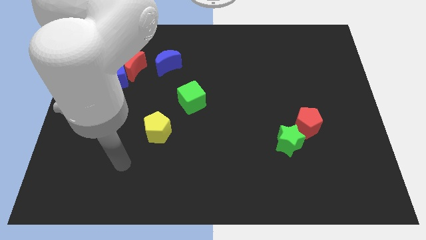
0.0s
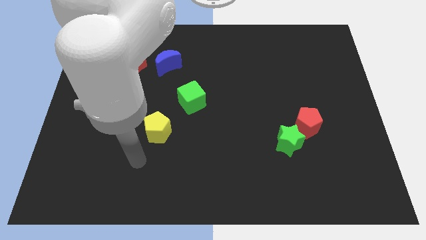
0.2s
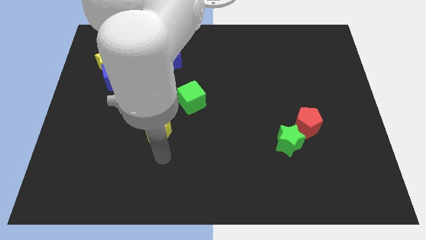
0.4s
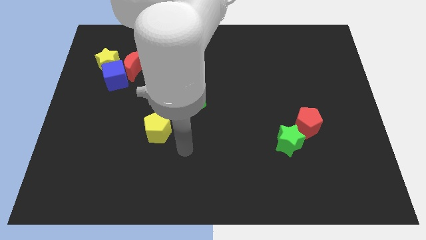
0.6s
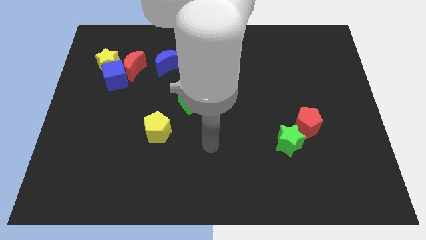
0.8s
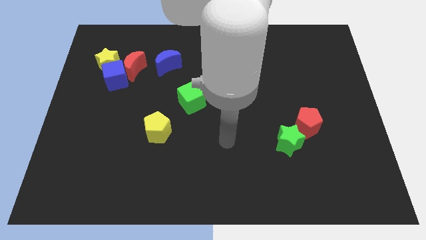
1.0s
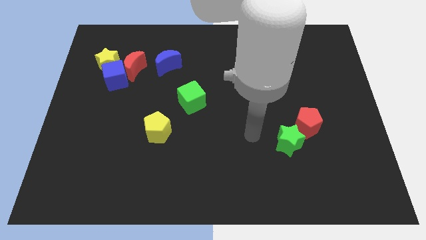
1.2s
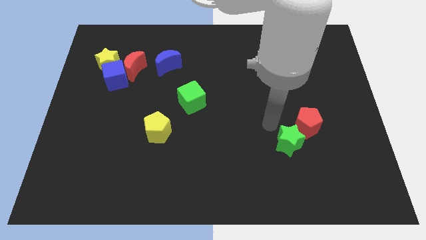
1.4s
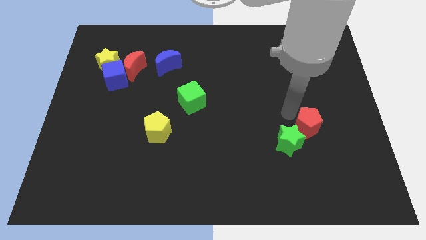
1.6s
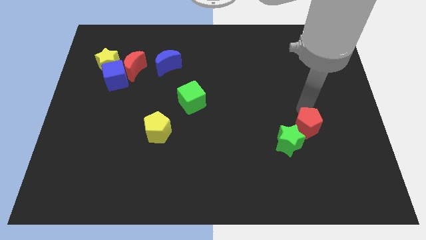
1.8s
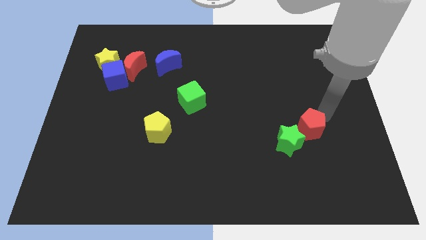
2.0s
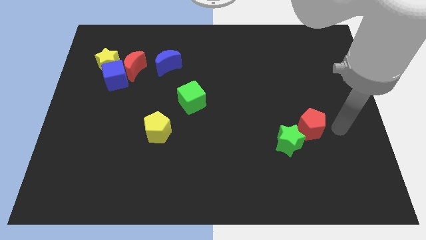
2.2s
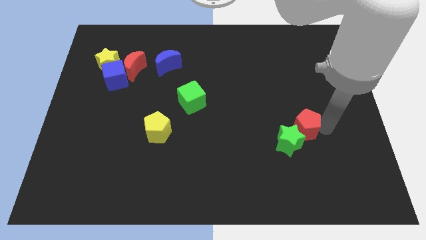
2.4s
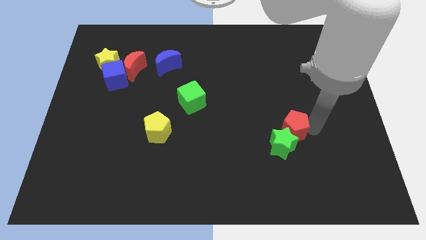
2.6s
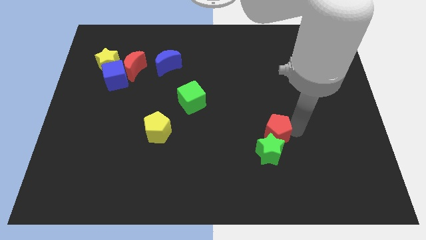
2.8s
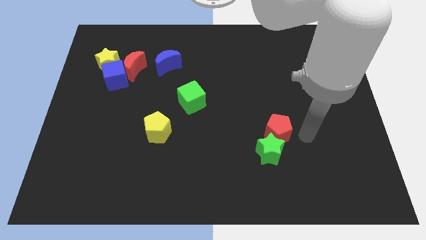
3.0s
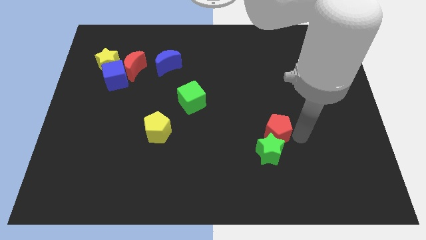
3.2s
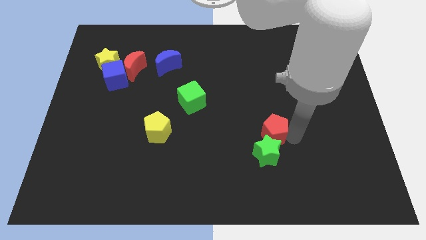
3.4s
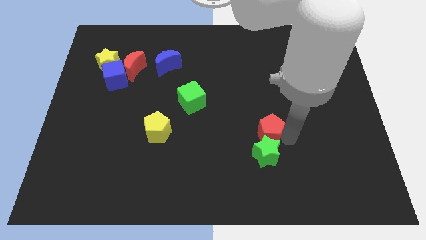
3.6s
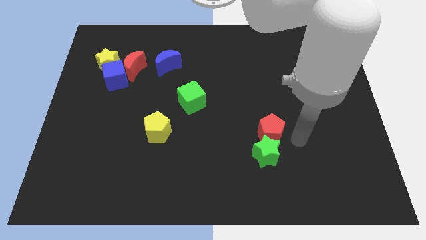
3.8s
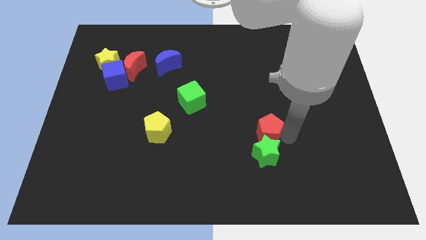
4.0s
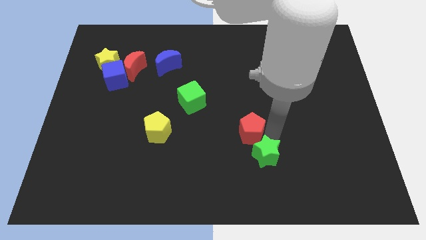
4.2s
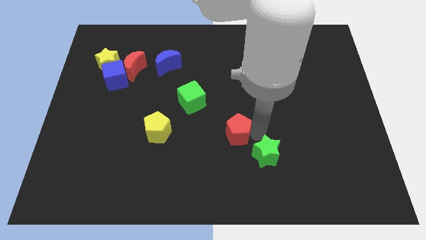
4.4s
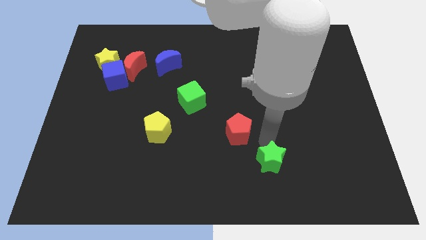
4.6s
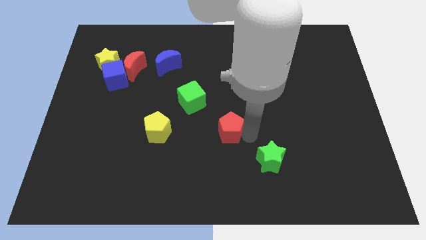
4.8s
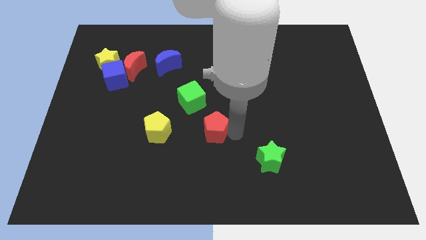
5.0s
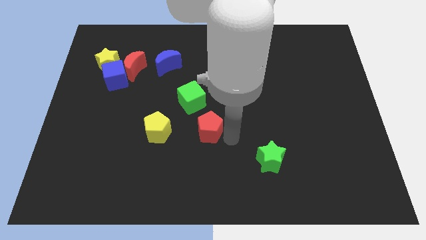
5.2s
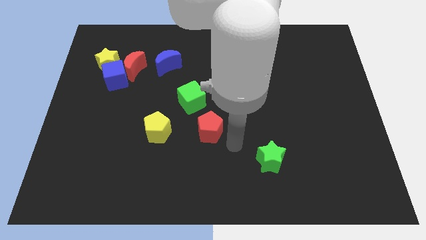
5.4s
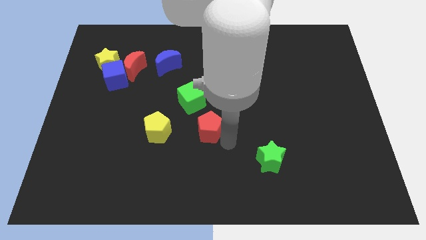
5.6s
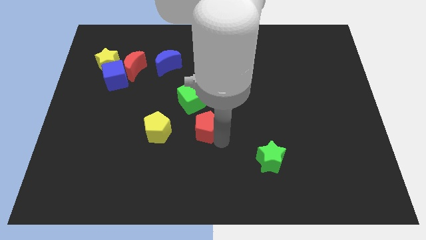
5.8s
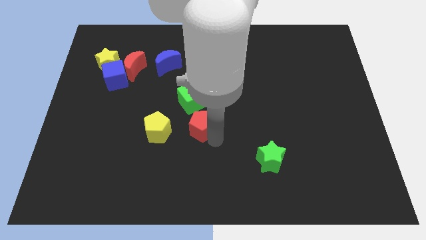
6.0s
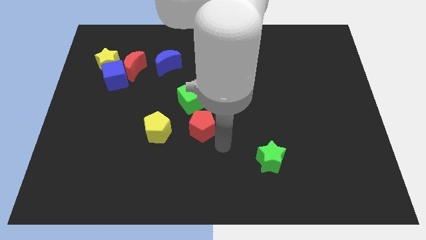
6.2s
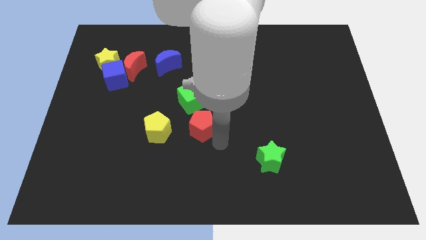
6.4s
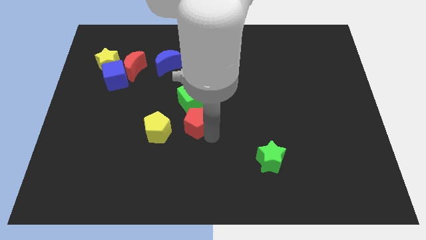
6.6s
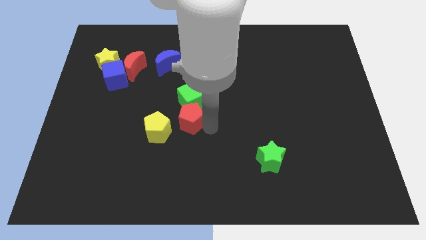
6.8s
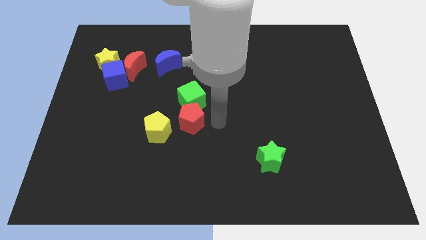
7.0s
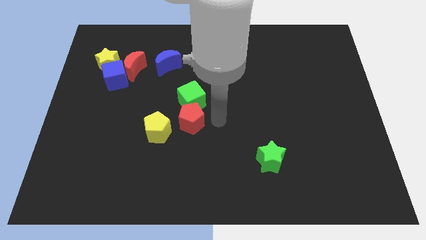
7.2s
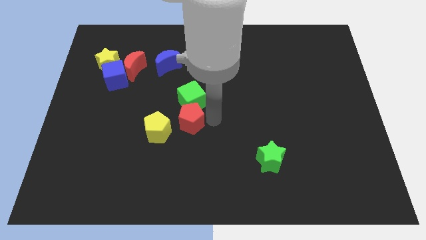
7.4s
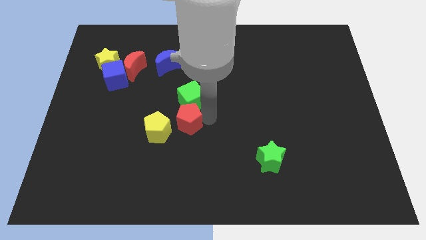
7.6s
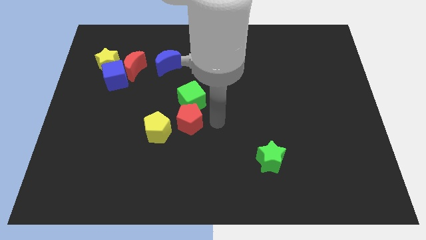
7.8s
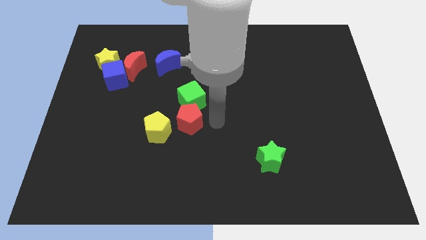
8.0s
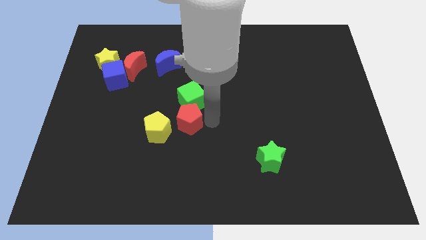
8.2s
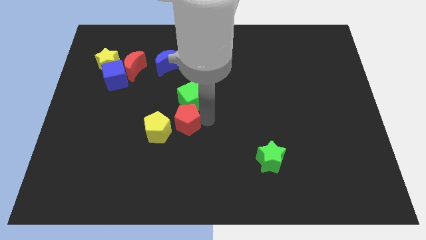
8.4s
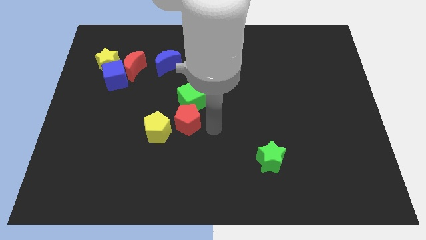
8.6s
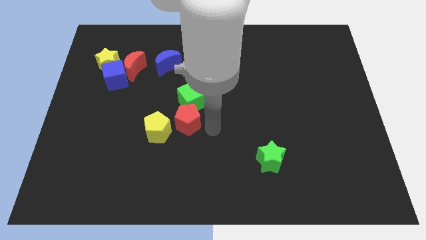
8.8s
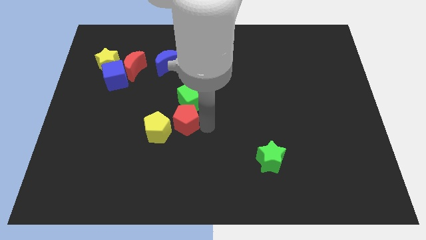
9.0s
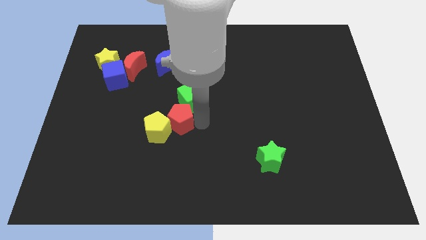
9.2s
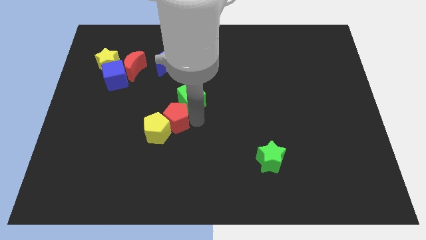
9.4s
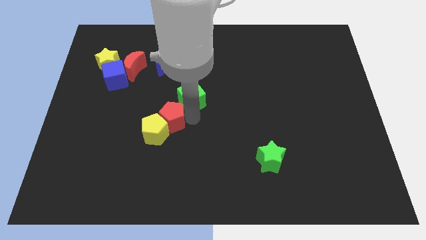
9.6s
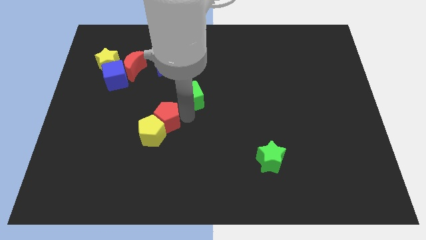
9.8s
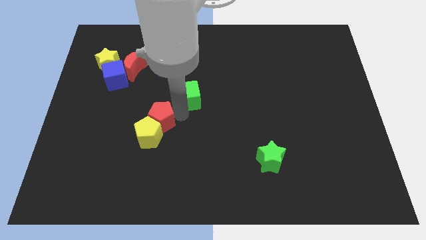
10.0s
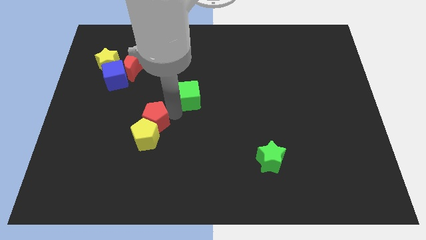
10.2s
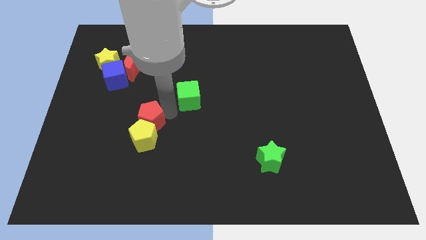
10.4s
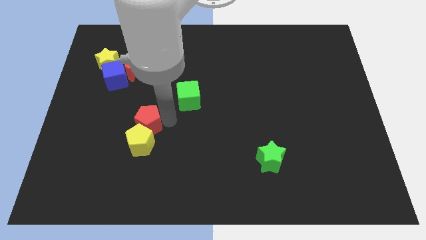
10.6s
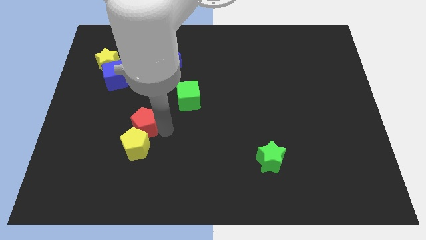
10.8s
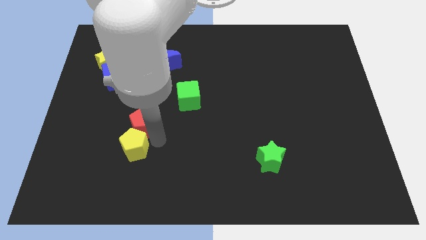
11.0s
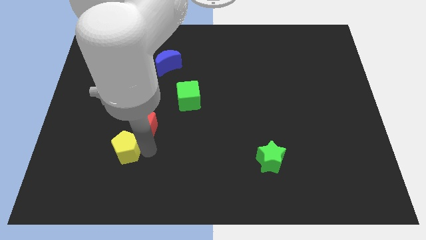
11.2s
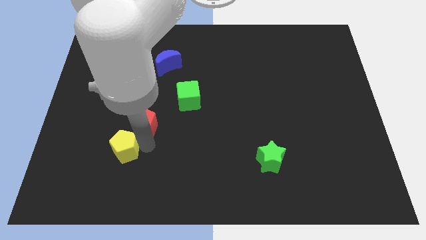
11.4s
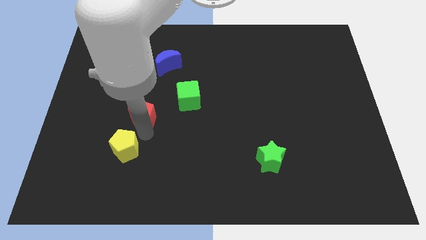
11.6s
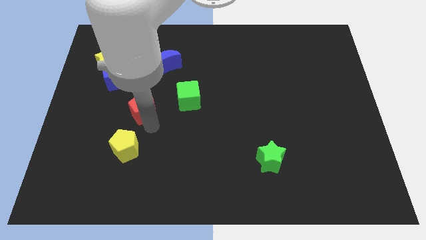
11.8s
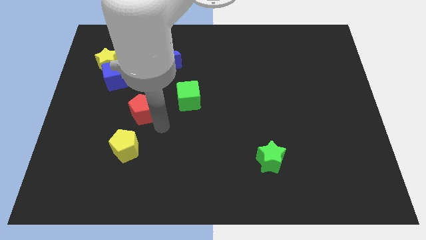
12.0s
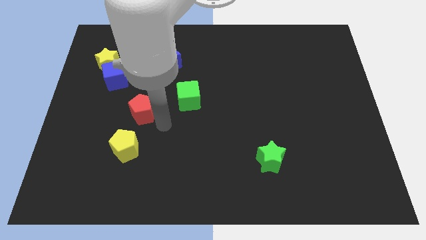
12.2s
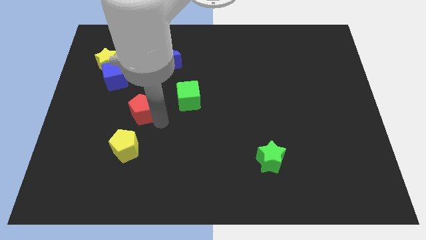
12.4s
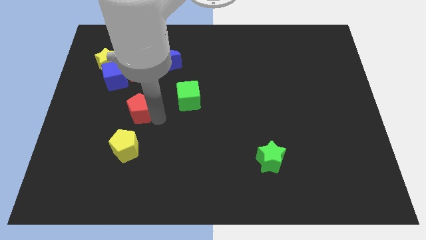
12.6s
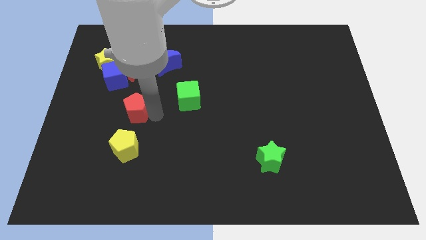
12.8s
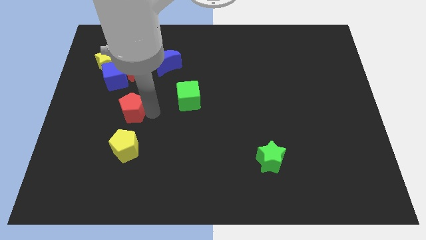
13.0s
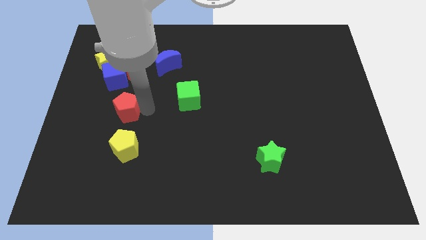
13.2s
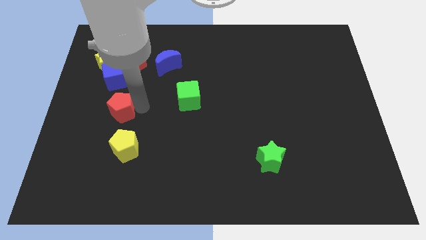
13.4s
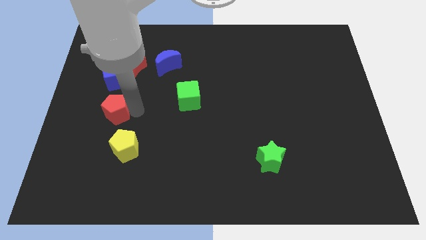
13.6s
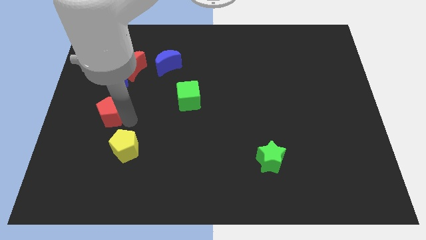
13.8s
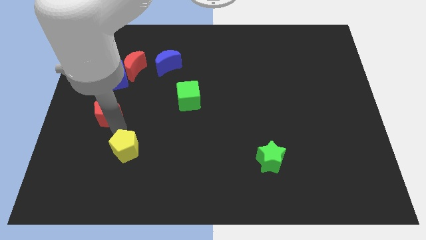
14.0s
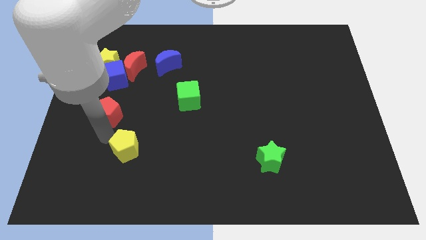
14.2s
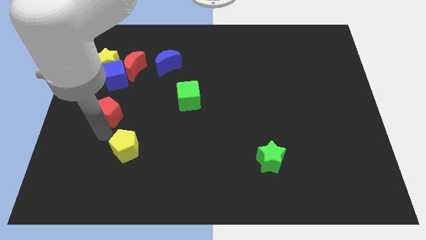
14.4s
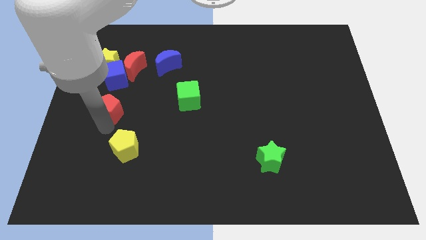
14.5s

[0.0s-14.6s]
move the red pentagon to the bottom side of the yellow star

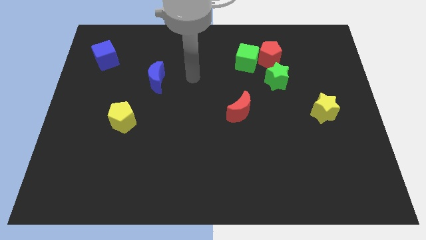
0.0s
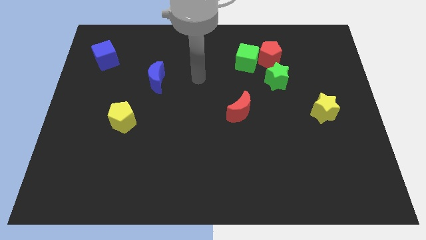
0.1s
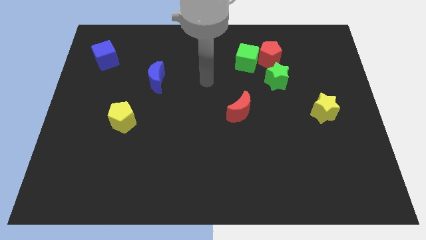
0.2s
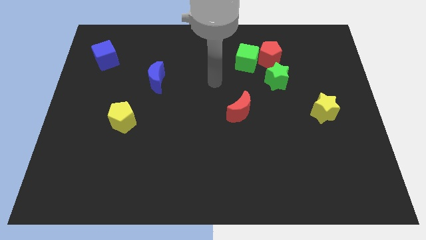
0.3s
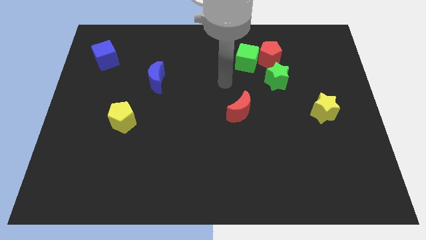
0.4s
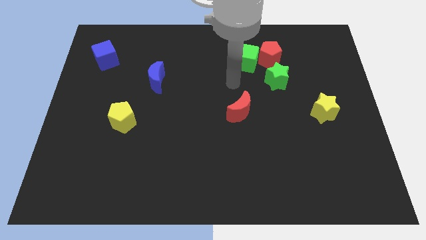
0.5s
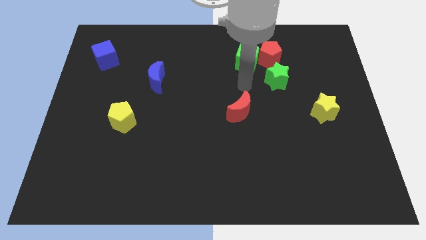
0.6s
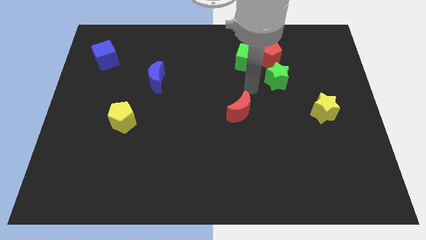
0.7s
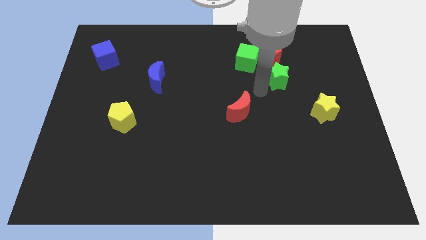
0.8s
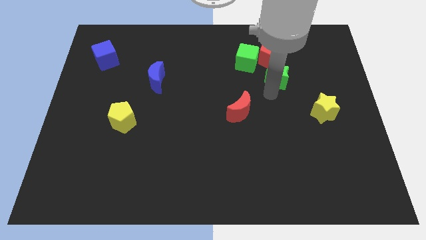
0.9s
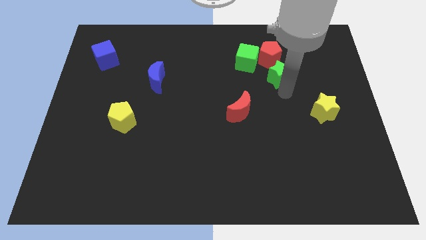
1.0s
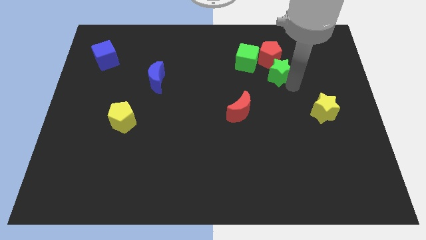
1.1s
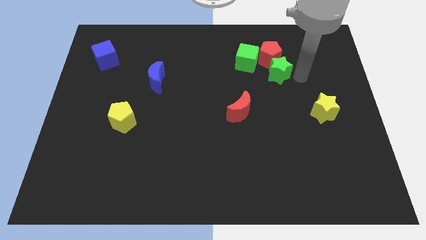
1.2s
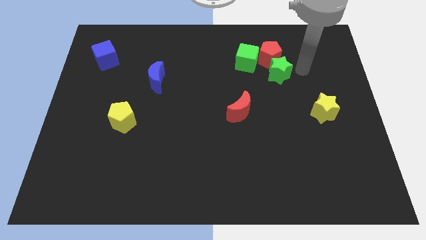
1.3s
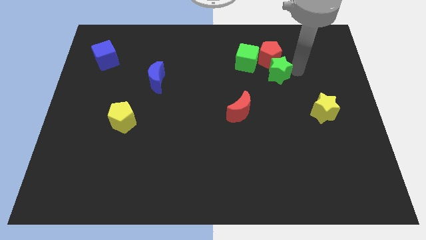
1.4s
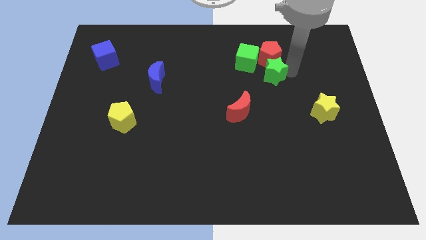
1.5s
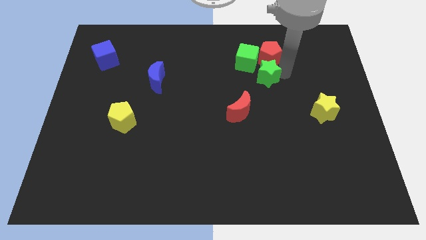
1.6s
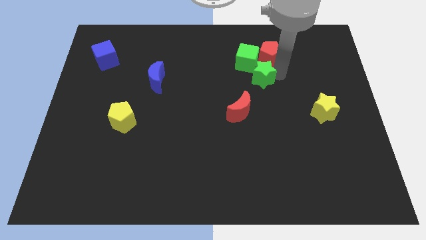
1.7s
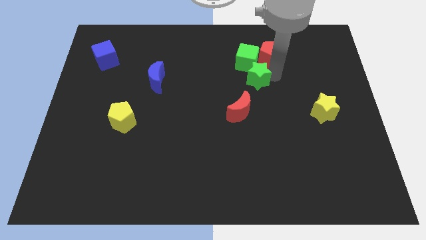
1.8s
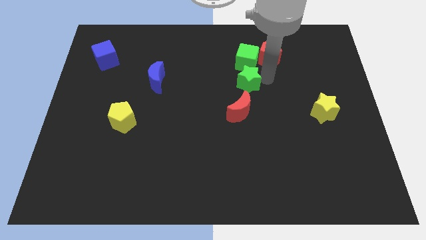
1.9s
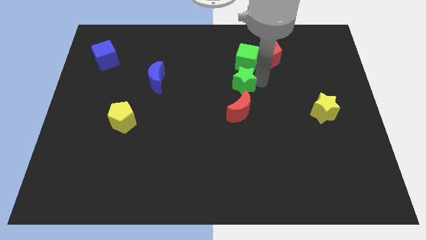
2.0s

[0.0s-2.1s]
push the green star to the bottom left of the green cube
